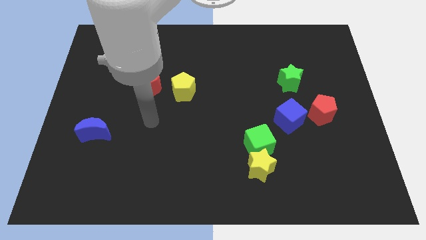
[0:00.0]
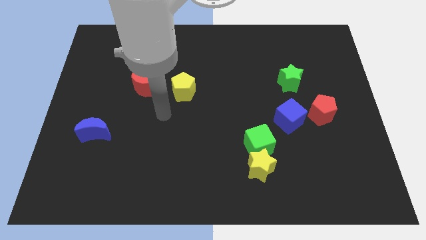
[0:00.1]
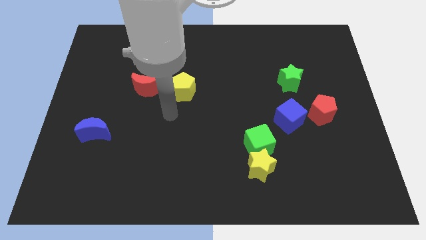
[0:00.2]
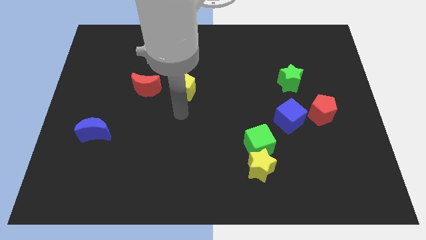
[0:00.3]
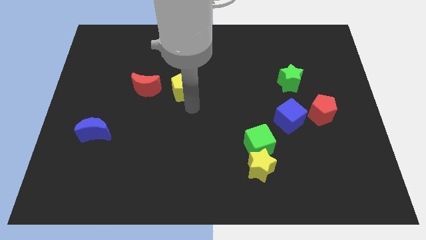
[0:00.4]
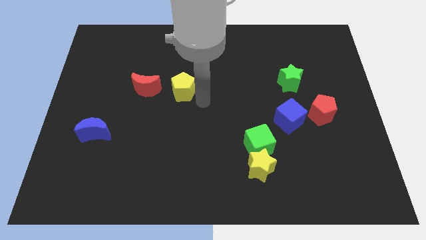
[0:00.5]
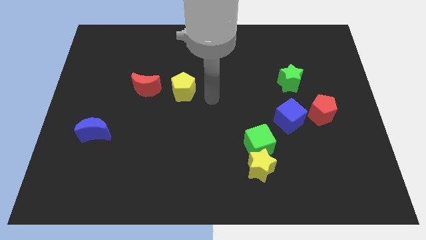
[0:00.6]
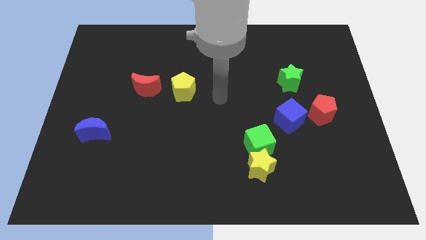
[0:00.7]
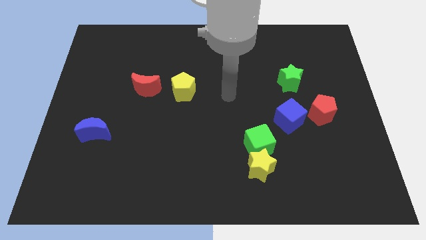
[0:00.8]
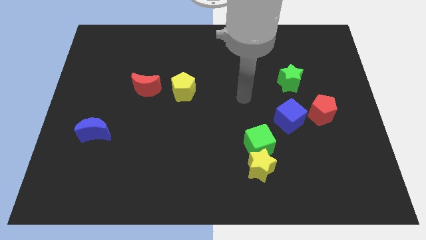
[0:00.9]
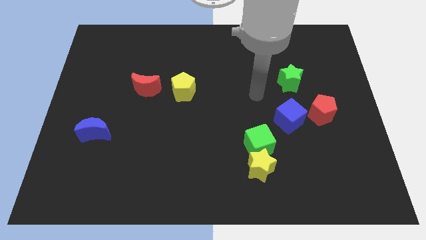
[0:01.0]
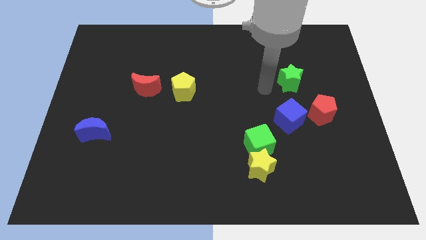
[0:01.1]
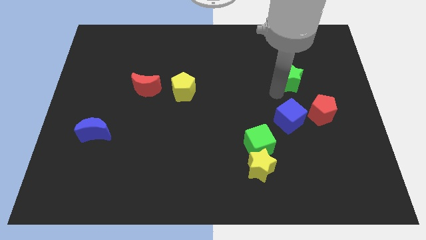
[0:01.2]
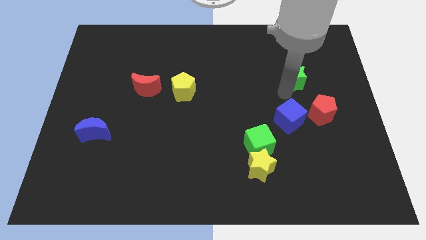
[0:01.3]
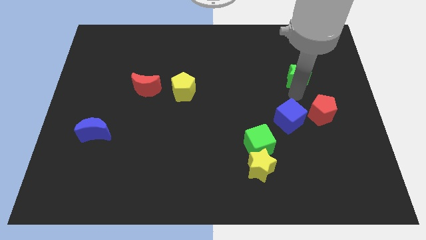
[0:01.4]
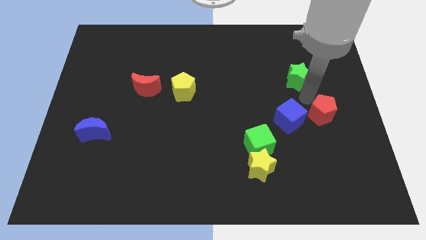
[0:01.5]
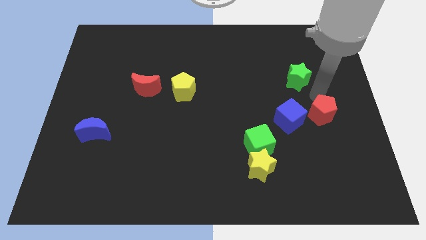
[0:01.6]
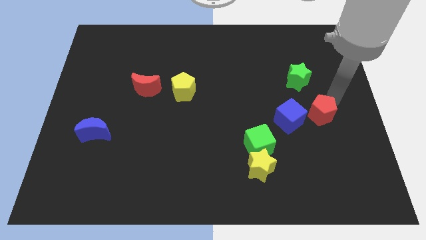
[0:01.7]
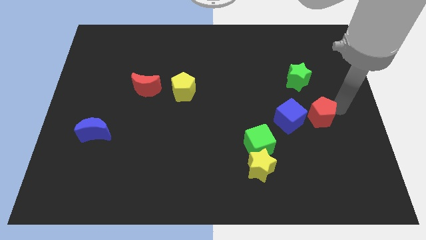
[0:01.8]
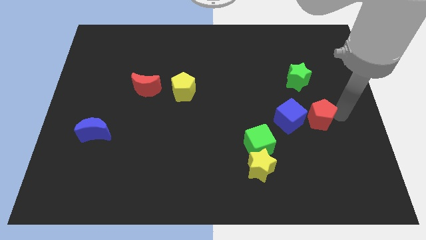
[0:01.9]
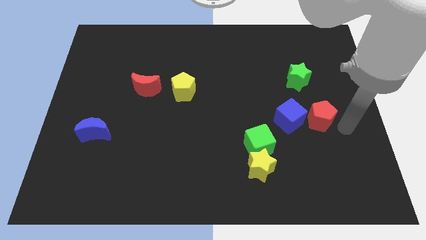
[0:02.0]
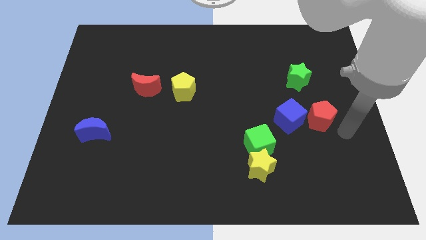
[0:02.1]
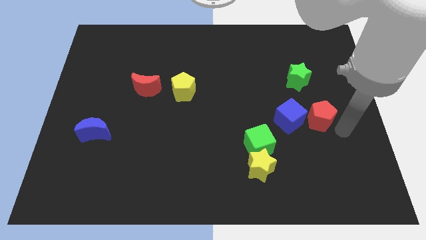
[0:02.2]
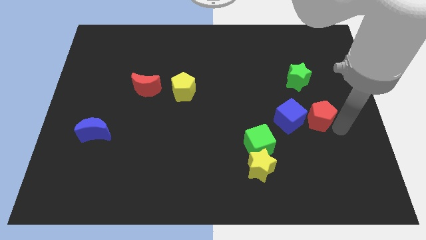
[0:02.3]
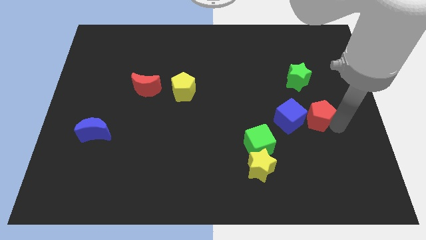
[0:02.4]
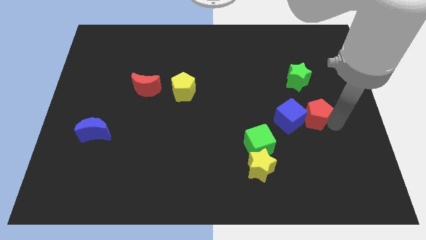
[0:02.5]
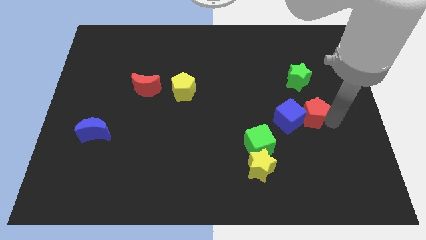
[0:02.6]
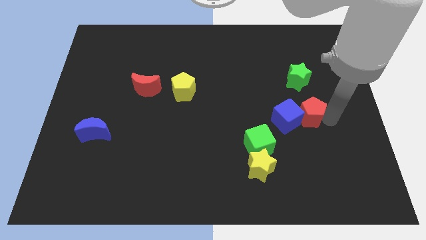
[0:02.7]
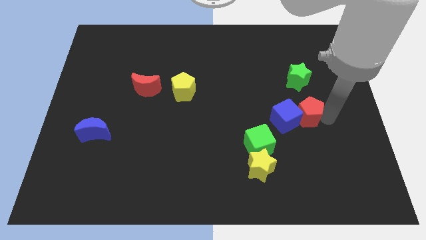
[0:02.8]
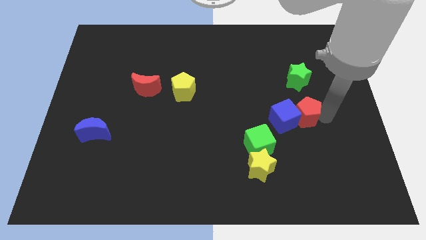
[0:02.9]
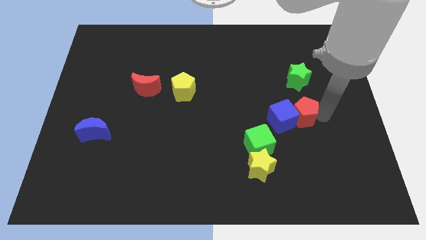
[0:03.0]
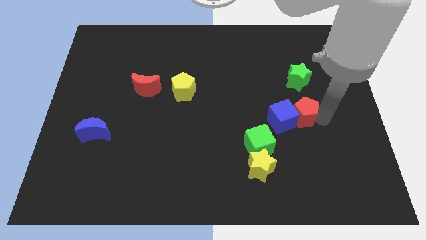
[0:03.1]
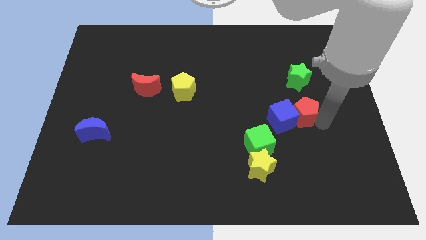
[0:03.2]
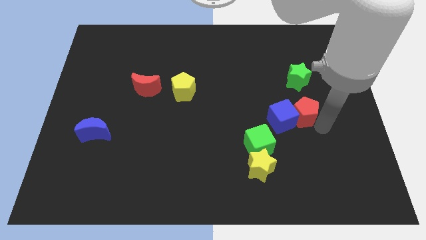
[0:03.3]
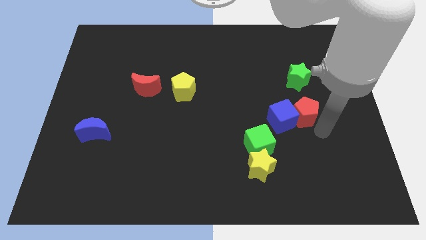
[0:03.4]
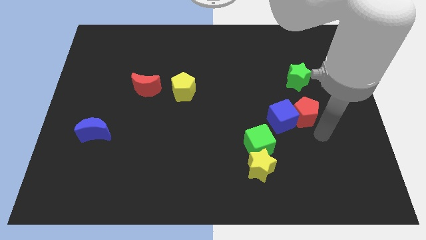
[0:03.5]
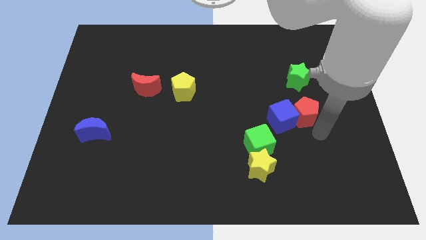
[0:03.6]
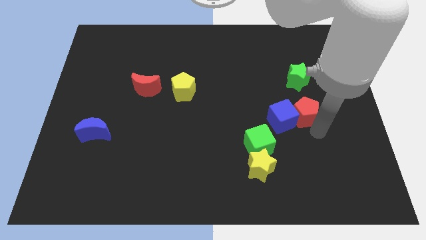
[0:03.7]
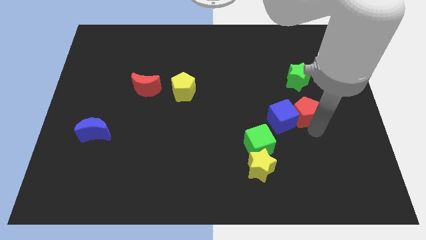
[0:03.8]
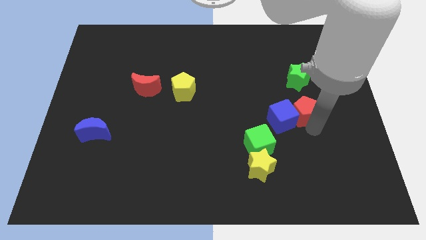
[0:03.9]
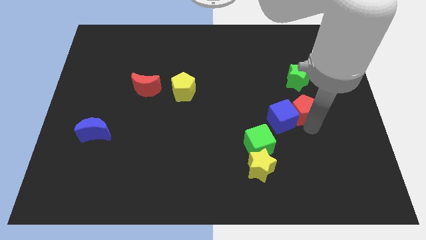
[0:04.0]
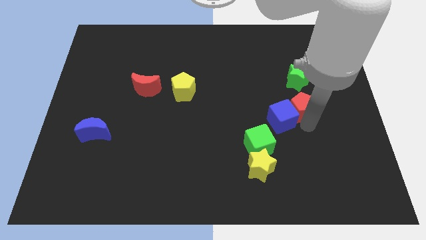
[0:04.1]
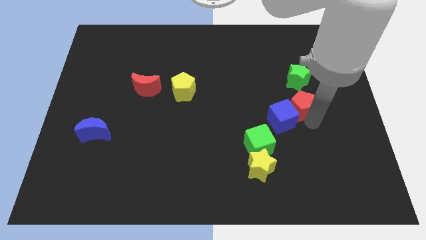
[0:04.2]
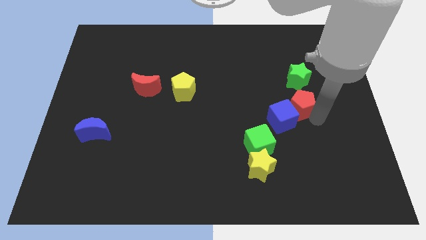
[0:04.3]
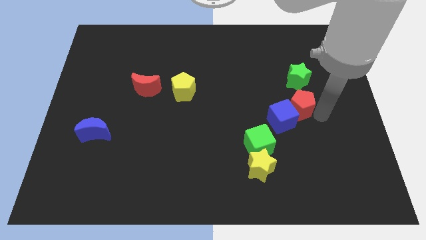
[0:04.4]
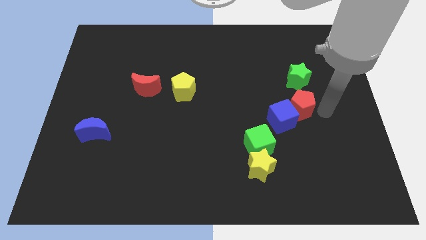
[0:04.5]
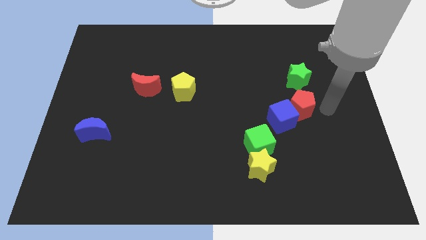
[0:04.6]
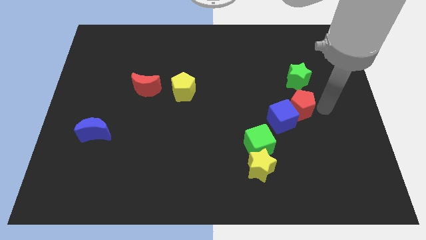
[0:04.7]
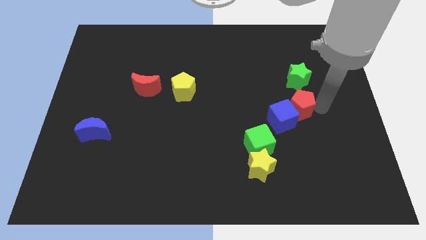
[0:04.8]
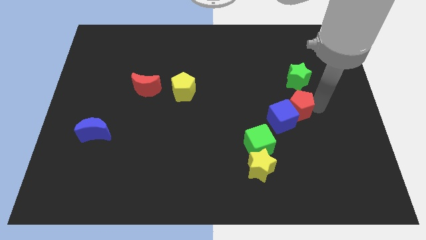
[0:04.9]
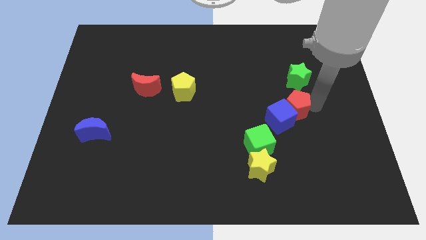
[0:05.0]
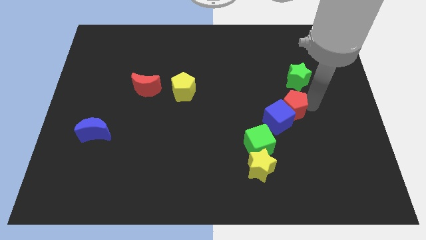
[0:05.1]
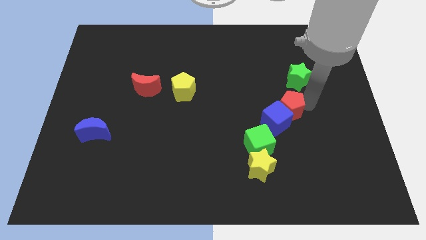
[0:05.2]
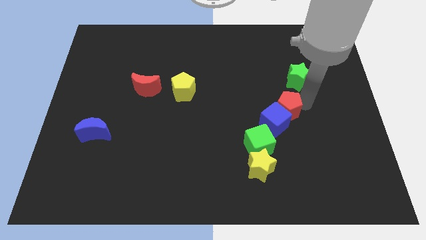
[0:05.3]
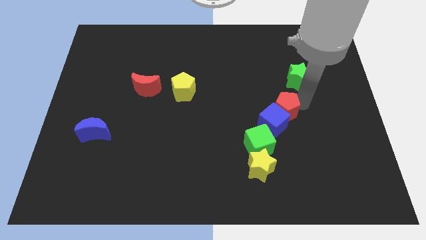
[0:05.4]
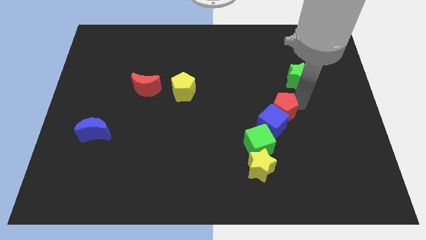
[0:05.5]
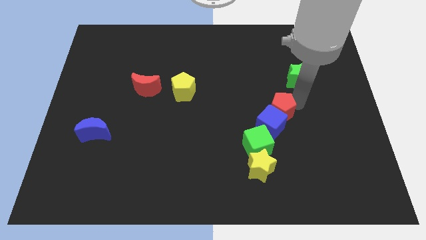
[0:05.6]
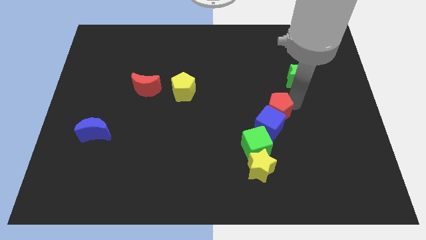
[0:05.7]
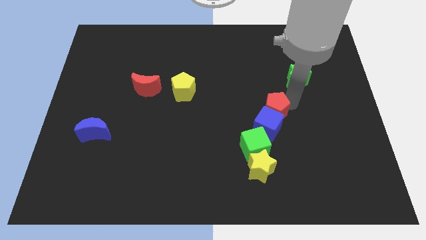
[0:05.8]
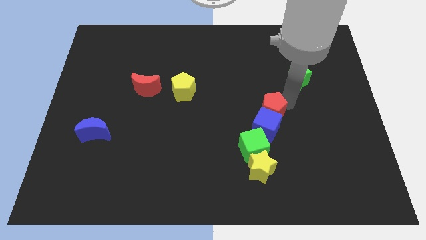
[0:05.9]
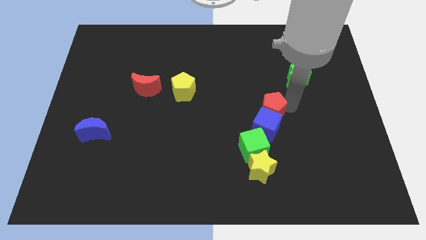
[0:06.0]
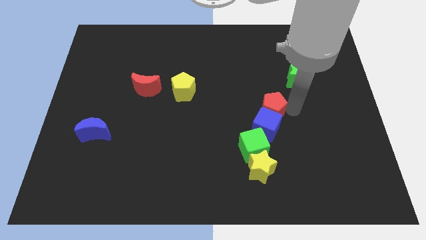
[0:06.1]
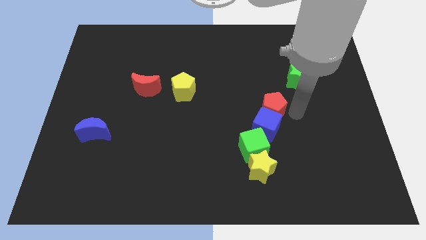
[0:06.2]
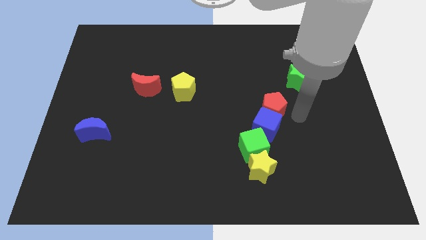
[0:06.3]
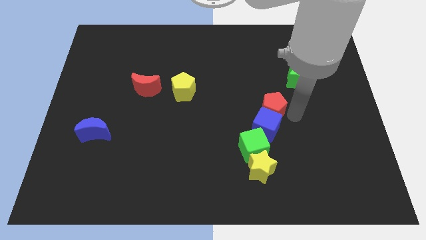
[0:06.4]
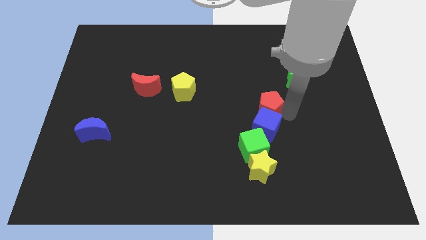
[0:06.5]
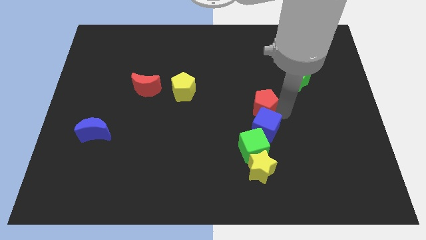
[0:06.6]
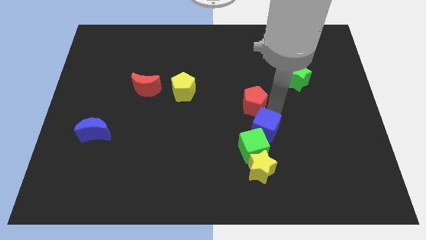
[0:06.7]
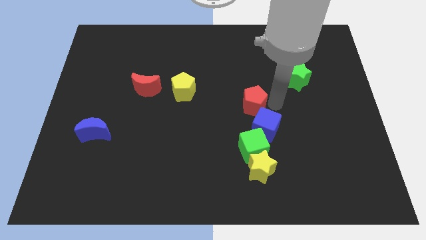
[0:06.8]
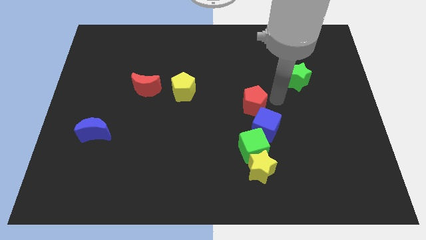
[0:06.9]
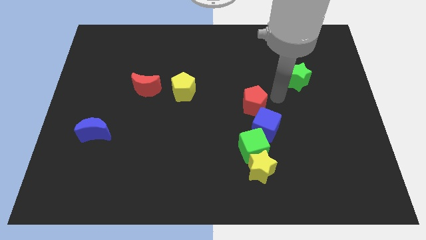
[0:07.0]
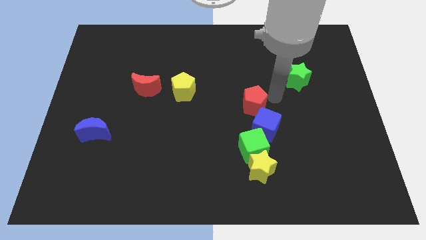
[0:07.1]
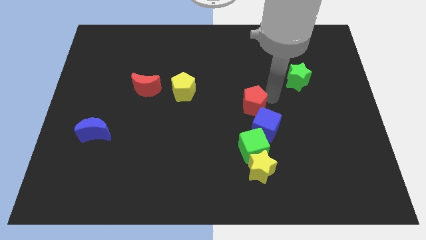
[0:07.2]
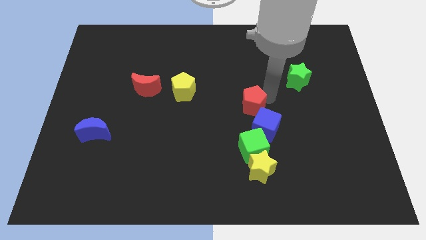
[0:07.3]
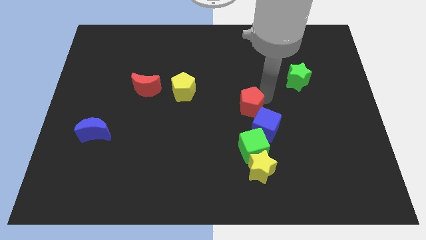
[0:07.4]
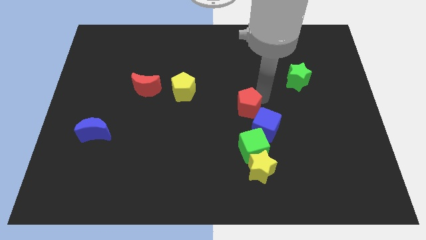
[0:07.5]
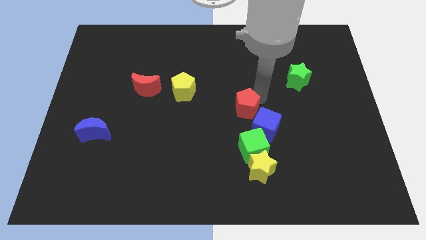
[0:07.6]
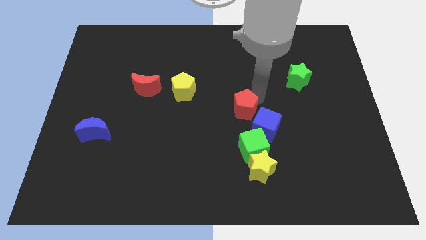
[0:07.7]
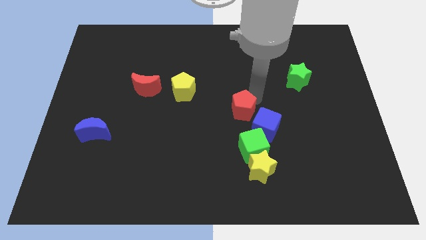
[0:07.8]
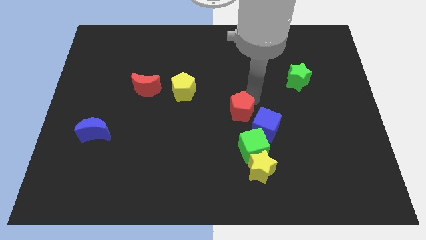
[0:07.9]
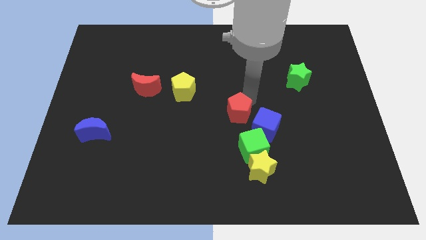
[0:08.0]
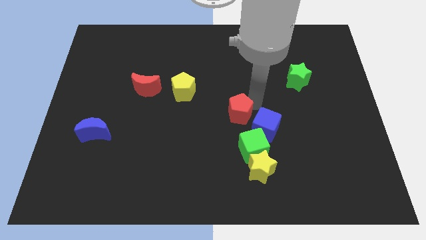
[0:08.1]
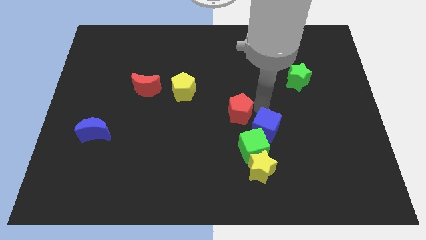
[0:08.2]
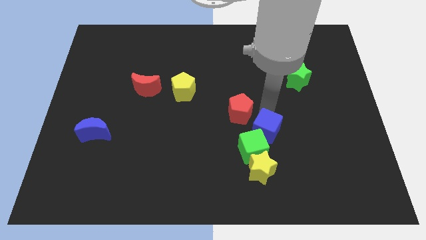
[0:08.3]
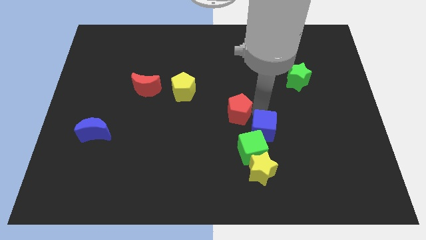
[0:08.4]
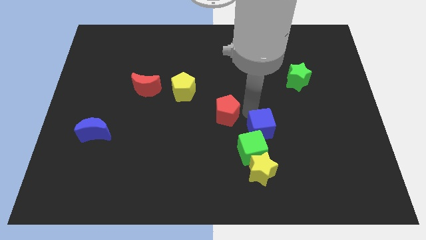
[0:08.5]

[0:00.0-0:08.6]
slide the red pentagon left
